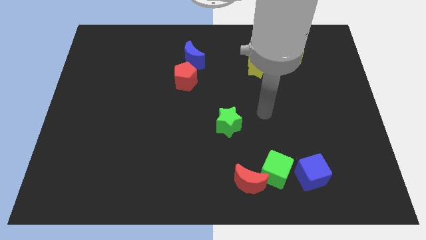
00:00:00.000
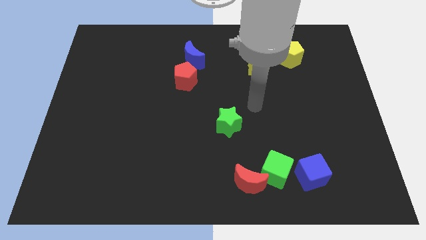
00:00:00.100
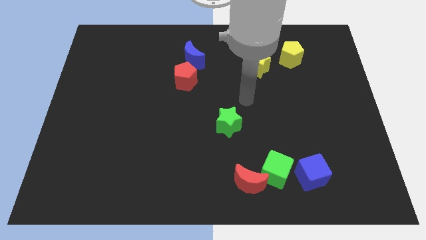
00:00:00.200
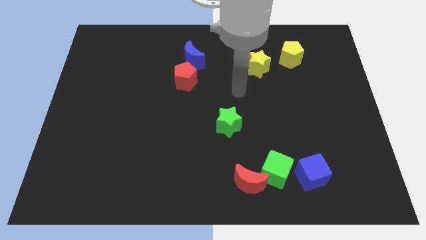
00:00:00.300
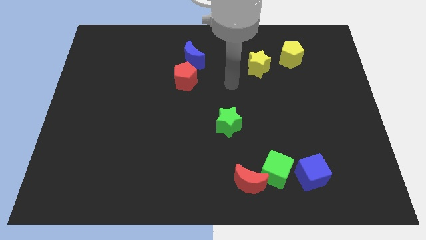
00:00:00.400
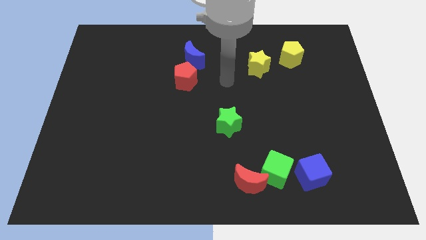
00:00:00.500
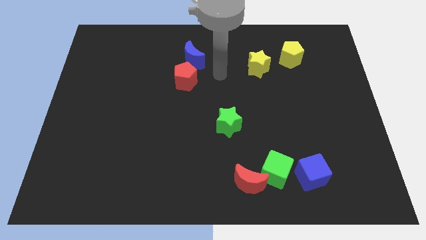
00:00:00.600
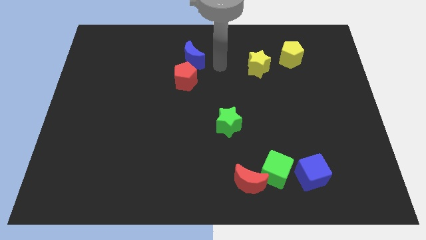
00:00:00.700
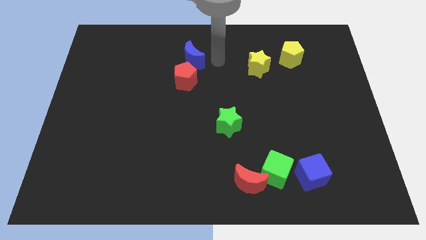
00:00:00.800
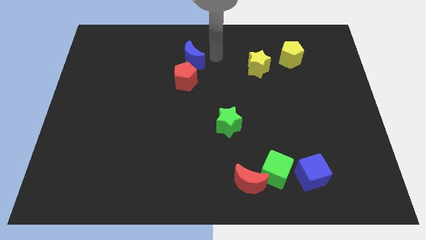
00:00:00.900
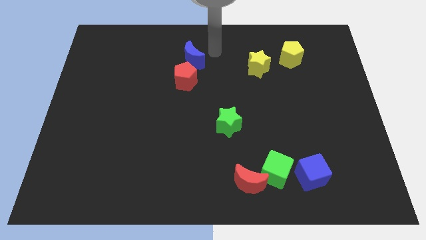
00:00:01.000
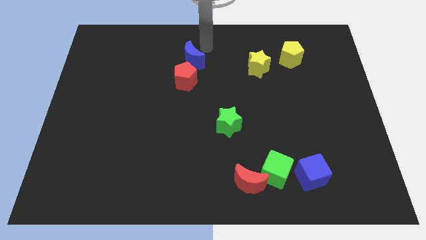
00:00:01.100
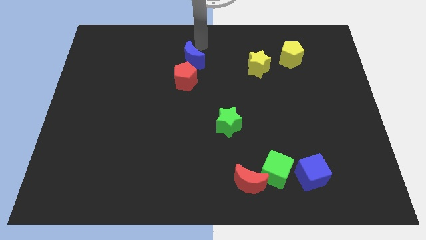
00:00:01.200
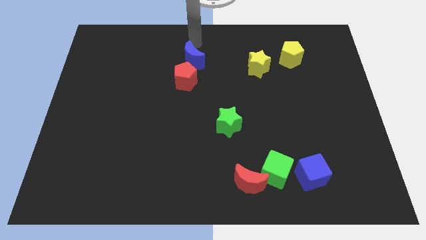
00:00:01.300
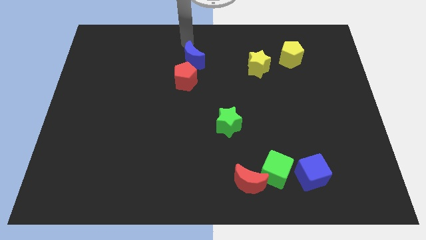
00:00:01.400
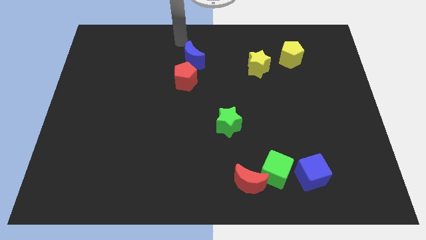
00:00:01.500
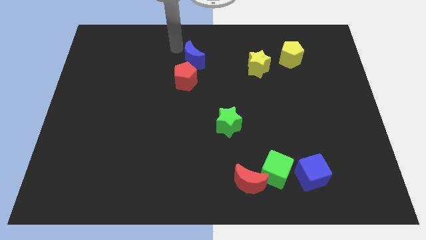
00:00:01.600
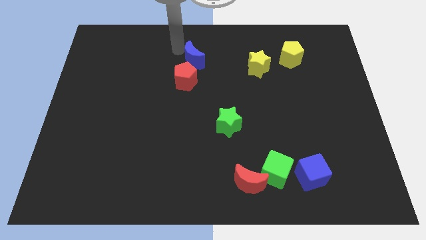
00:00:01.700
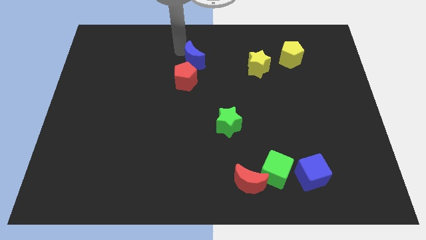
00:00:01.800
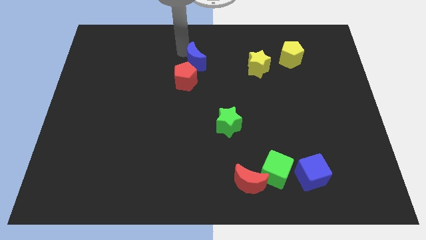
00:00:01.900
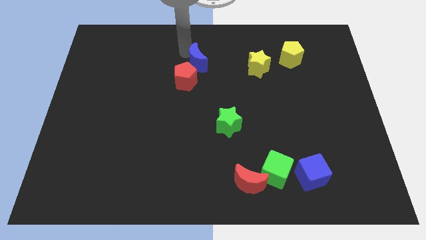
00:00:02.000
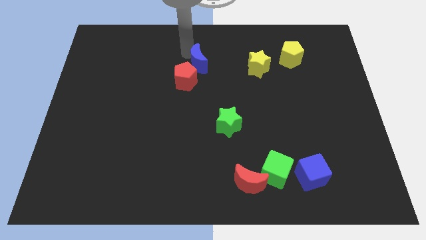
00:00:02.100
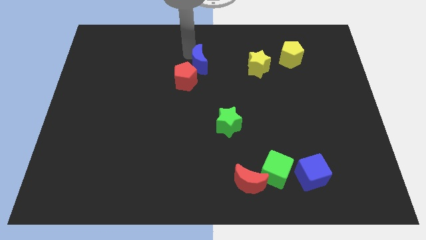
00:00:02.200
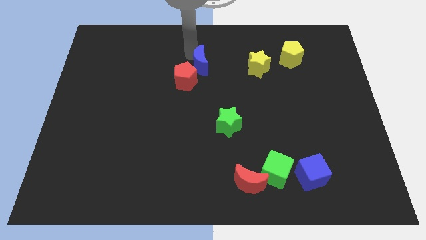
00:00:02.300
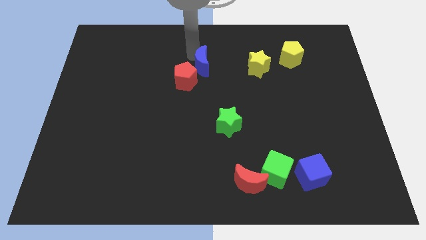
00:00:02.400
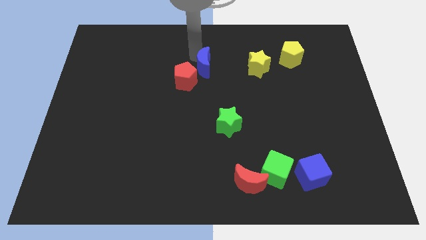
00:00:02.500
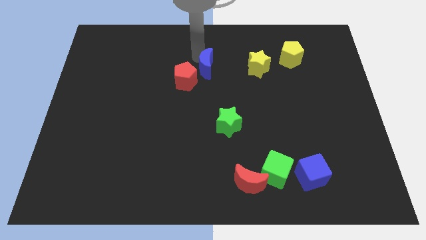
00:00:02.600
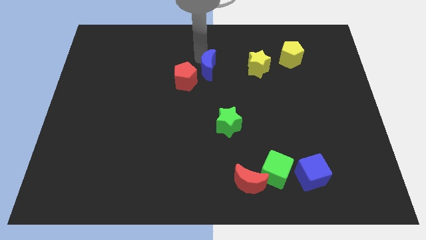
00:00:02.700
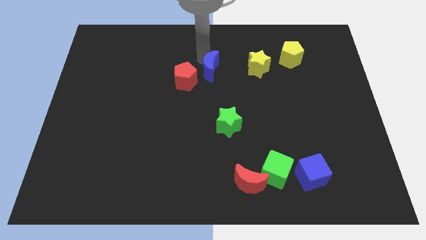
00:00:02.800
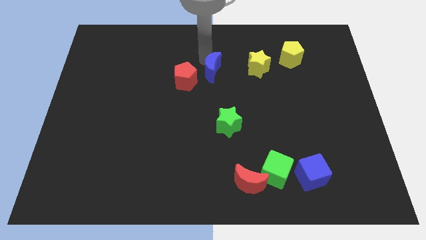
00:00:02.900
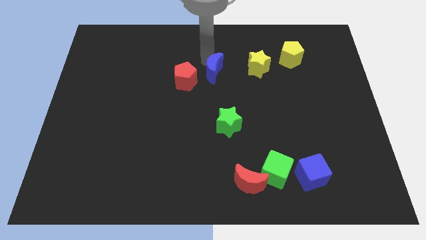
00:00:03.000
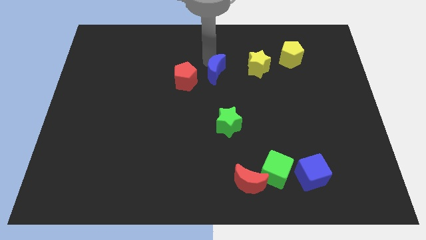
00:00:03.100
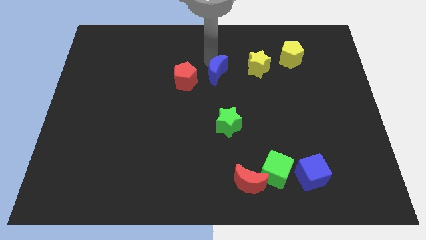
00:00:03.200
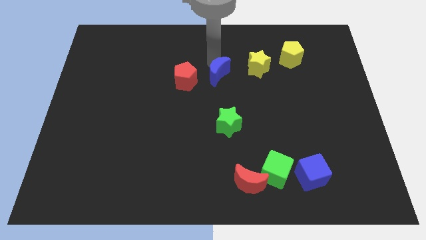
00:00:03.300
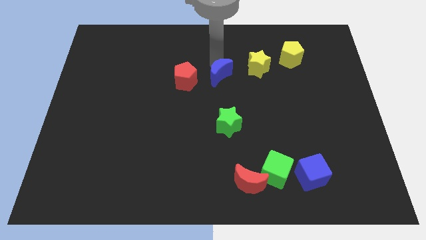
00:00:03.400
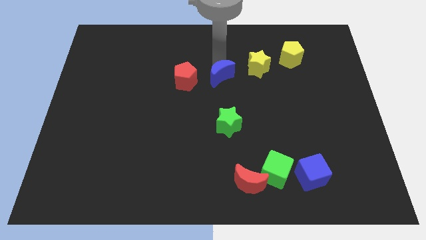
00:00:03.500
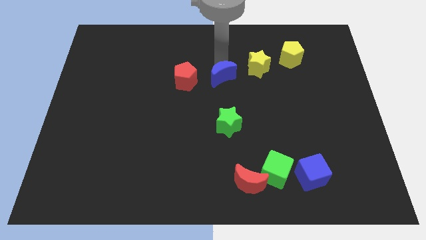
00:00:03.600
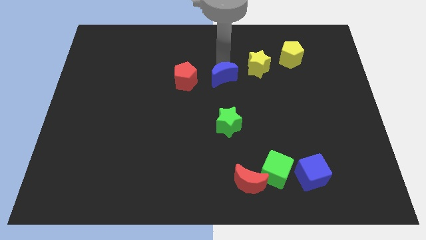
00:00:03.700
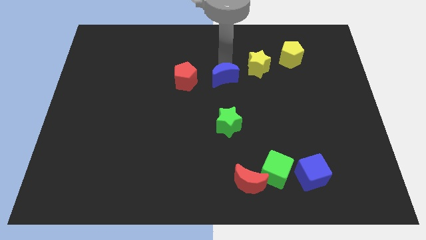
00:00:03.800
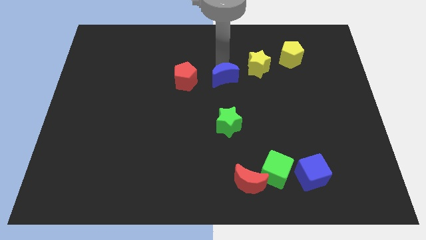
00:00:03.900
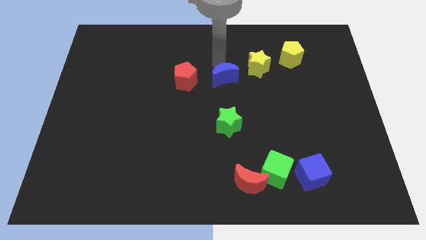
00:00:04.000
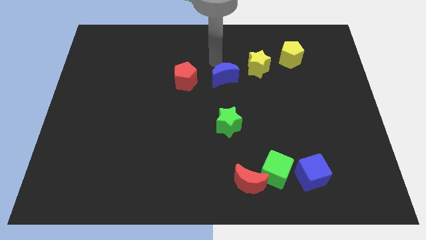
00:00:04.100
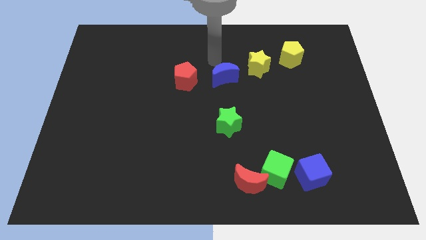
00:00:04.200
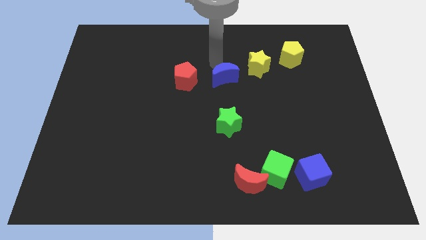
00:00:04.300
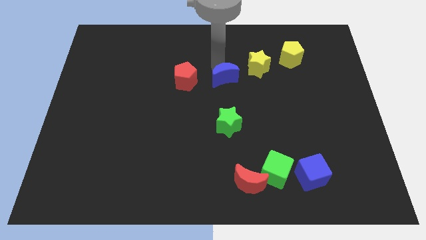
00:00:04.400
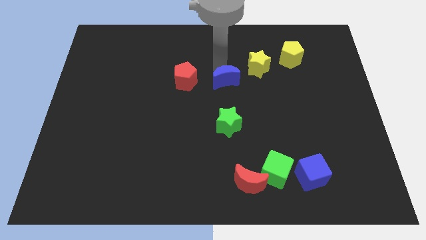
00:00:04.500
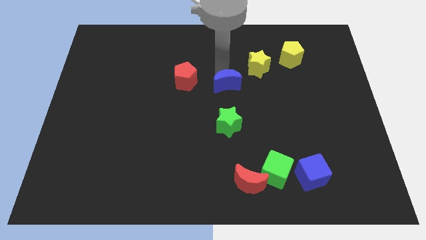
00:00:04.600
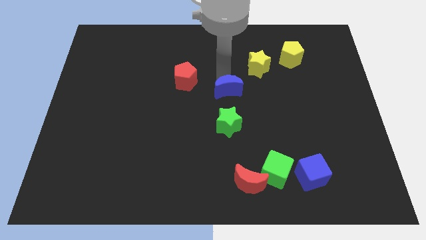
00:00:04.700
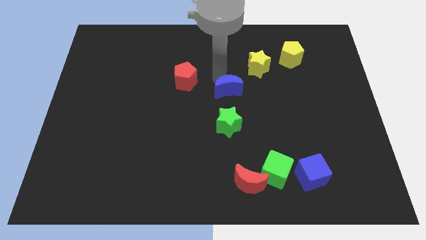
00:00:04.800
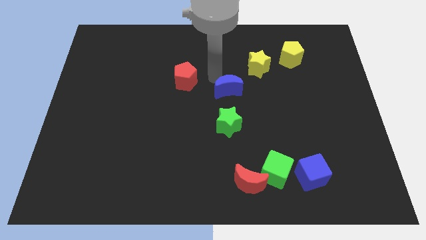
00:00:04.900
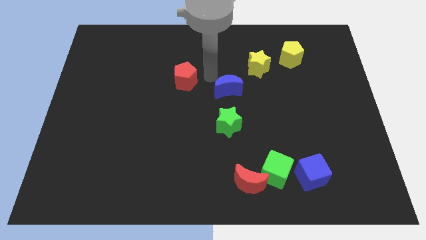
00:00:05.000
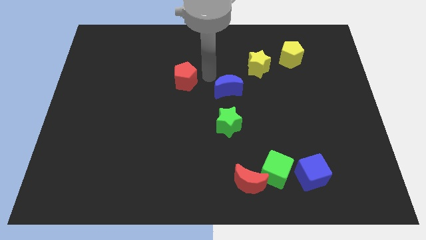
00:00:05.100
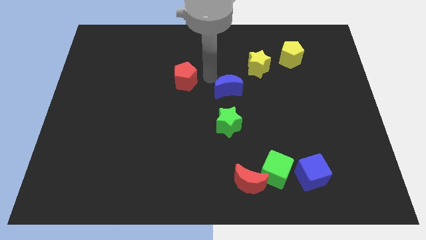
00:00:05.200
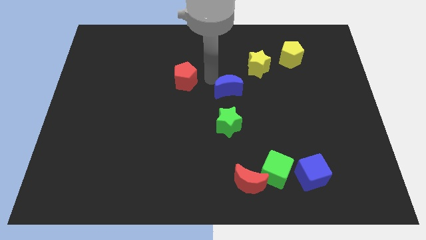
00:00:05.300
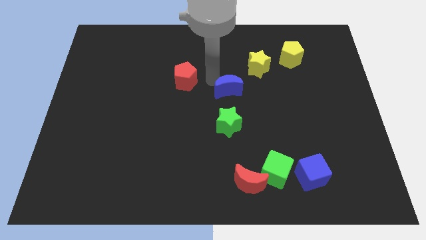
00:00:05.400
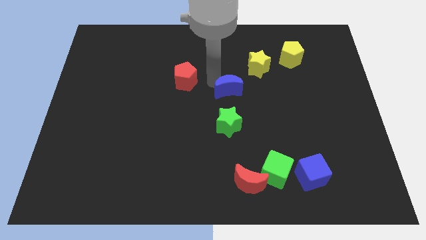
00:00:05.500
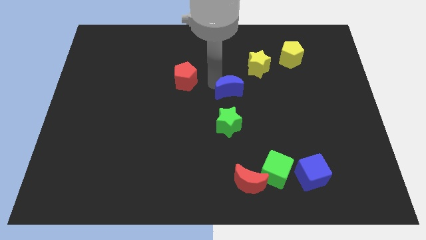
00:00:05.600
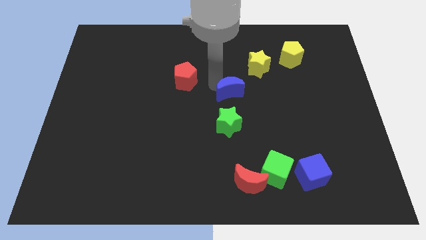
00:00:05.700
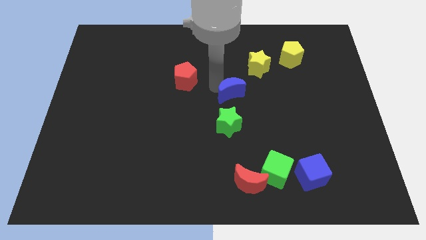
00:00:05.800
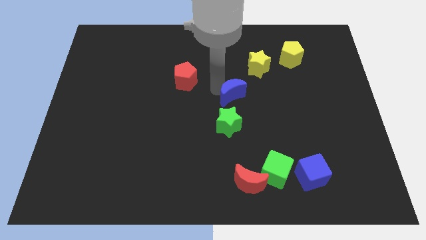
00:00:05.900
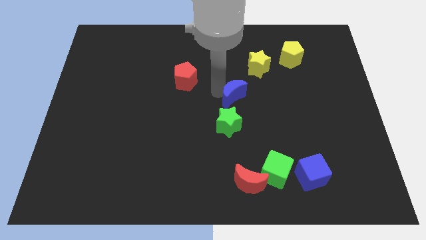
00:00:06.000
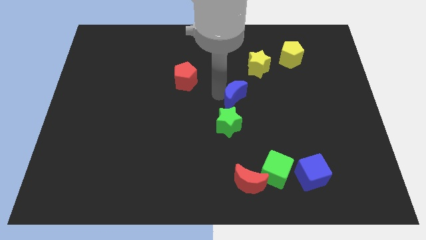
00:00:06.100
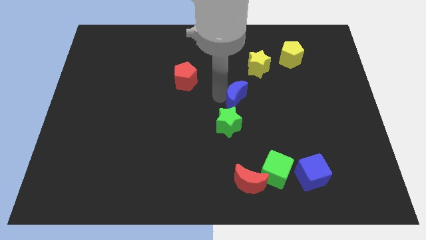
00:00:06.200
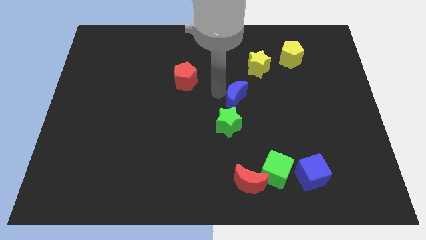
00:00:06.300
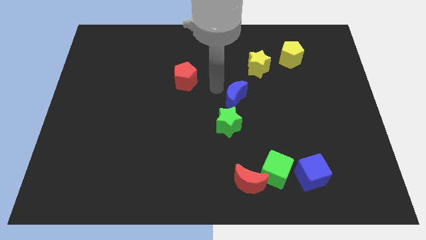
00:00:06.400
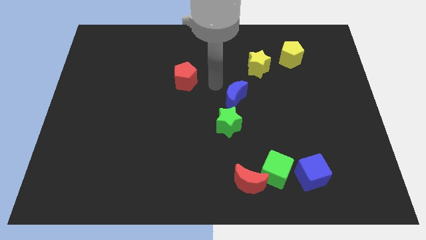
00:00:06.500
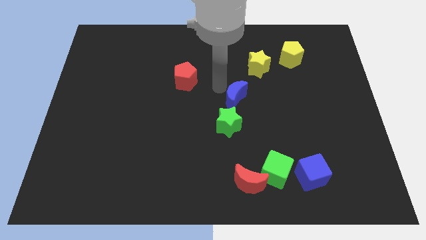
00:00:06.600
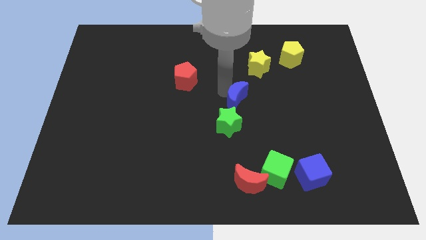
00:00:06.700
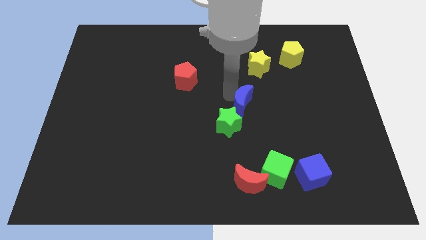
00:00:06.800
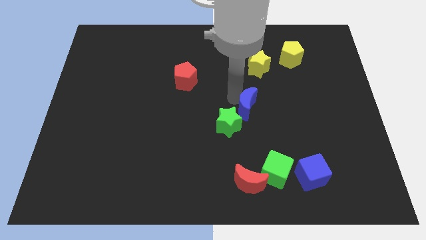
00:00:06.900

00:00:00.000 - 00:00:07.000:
slide the blue moon diagonally downwards and right

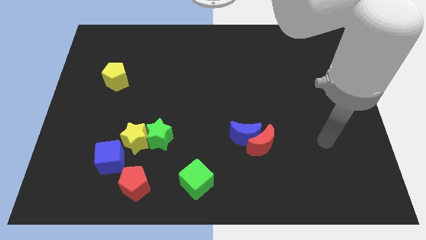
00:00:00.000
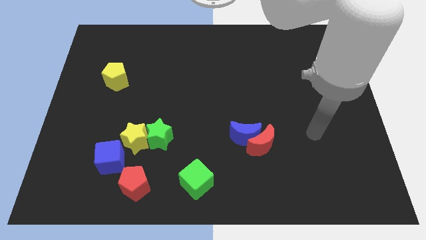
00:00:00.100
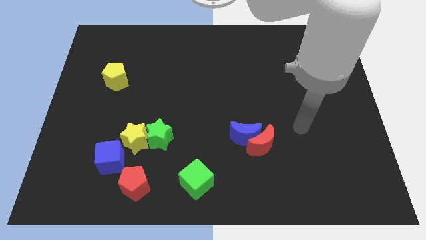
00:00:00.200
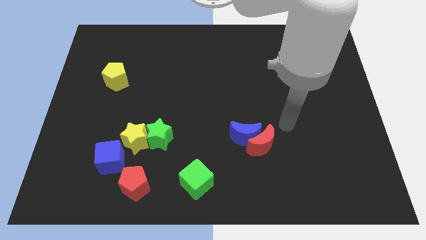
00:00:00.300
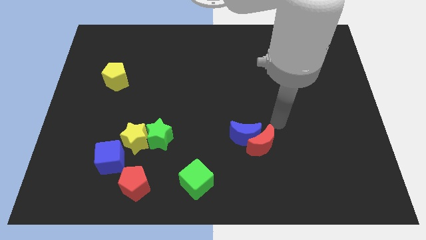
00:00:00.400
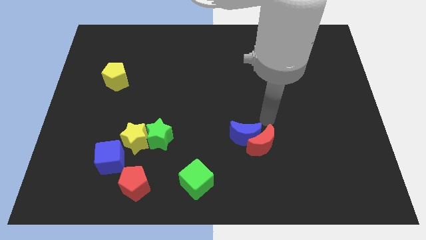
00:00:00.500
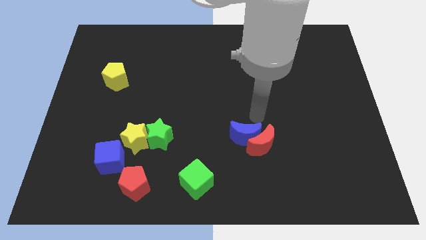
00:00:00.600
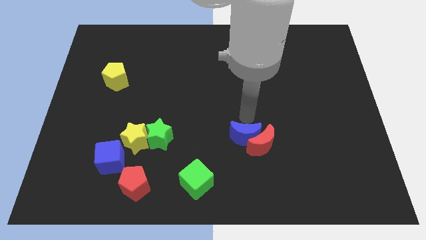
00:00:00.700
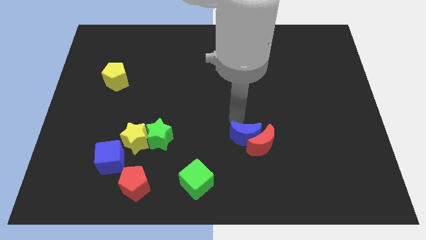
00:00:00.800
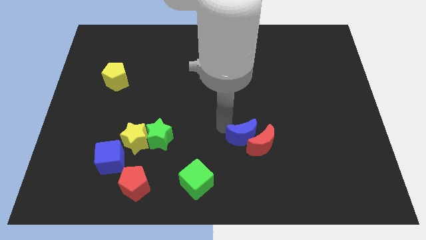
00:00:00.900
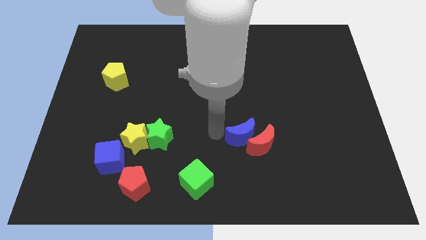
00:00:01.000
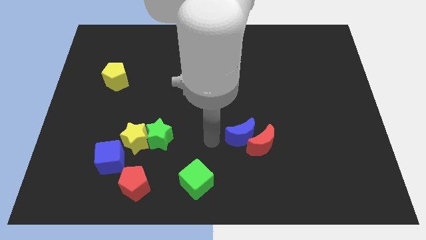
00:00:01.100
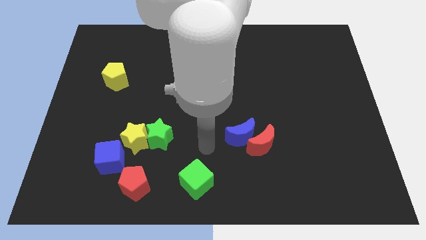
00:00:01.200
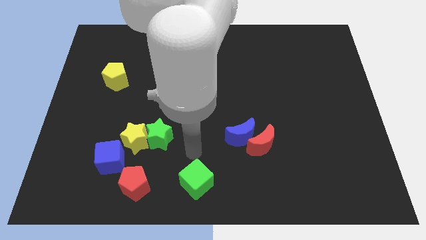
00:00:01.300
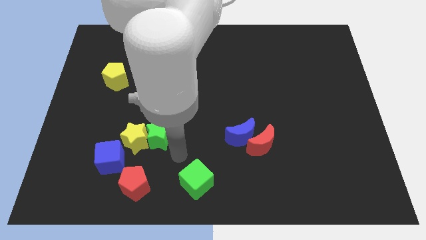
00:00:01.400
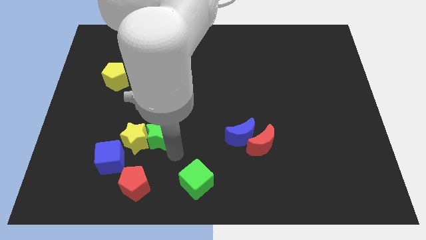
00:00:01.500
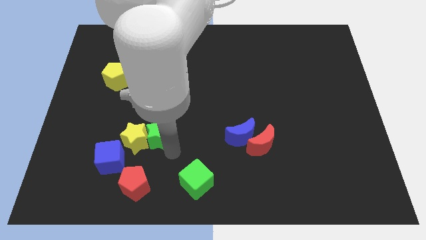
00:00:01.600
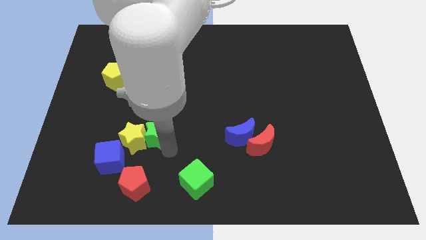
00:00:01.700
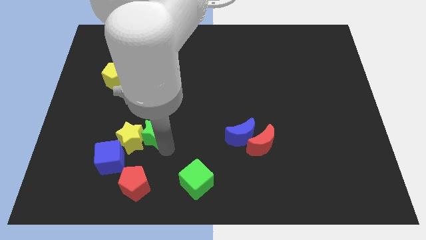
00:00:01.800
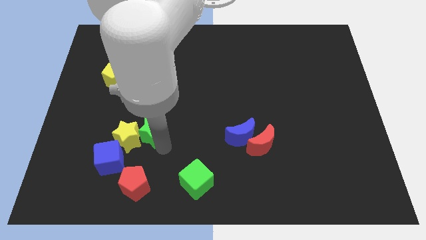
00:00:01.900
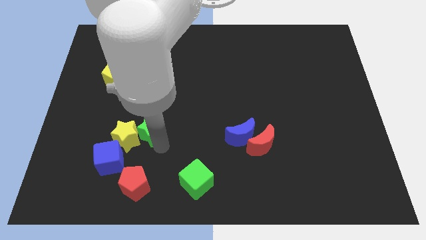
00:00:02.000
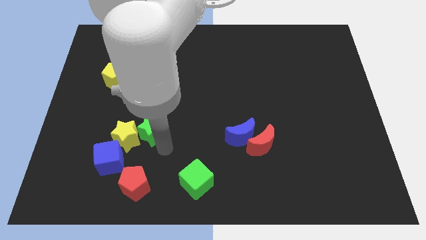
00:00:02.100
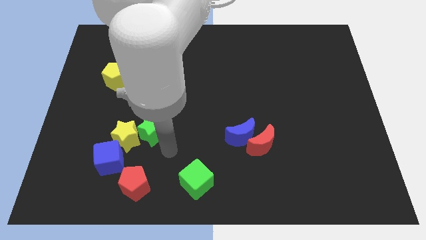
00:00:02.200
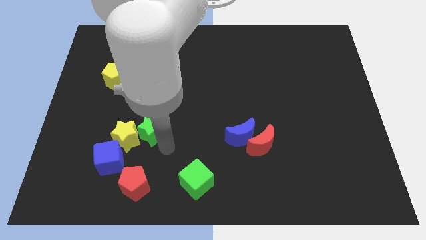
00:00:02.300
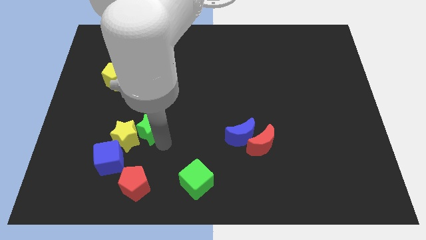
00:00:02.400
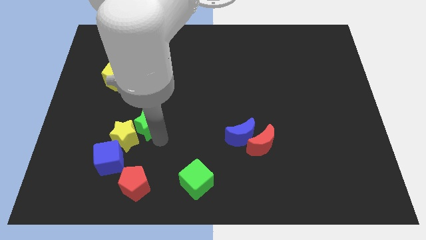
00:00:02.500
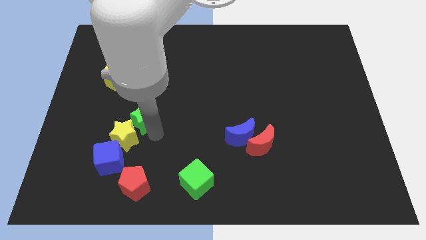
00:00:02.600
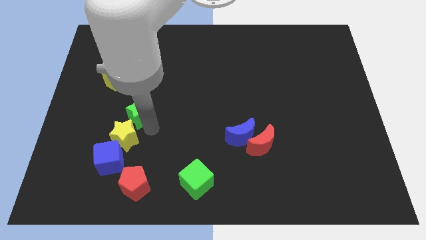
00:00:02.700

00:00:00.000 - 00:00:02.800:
push the green star up and then to the left a little bit
